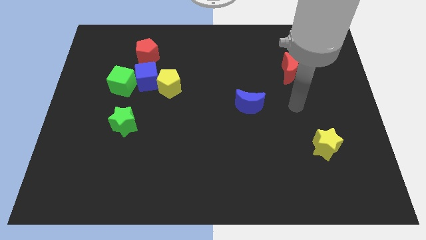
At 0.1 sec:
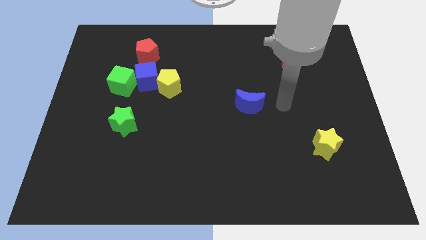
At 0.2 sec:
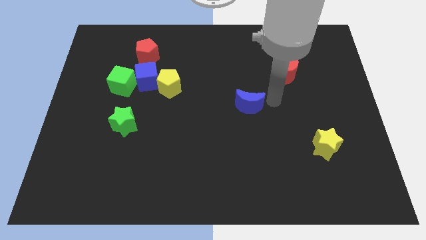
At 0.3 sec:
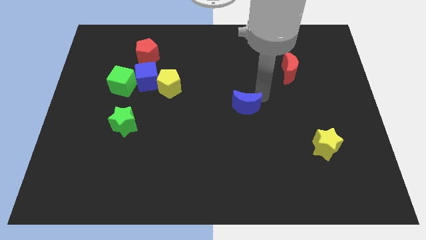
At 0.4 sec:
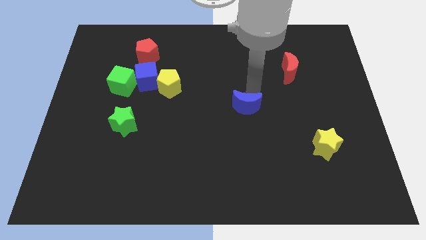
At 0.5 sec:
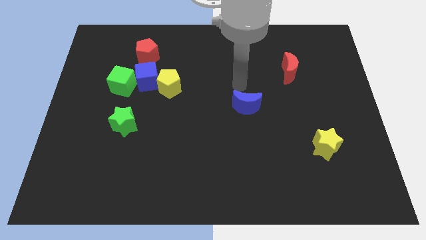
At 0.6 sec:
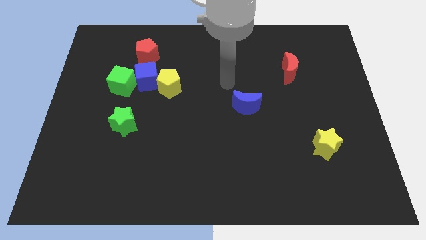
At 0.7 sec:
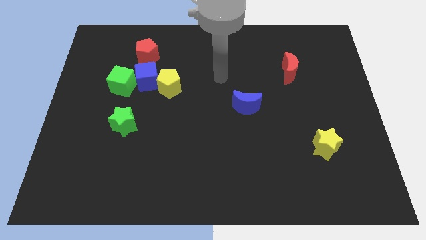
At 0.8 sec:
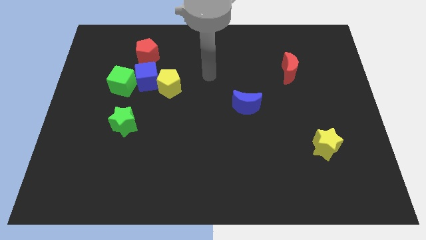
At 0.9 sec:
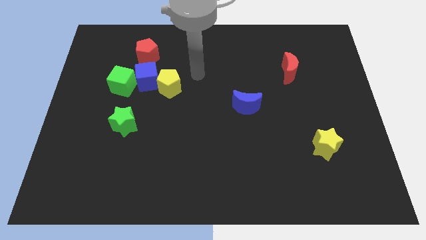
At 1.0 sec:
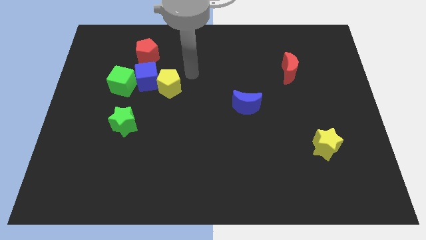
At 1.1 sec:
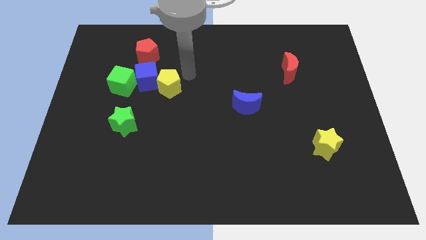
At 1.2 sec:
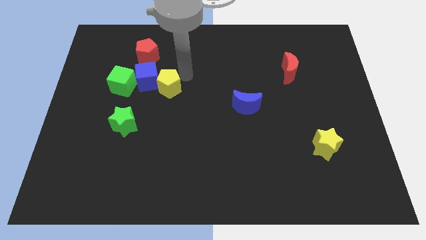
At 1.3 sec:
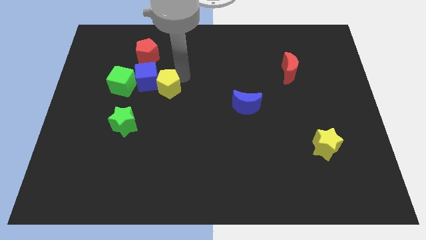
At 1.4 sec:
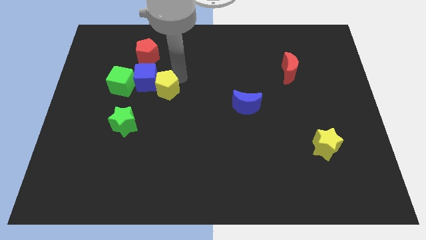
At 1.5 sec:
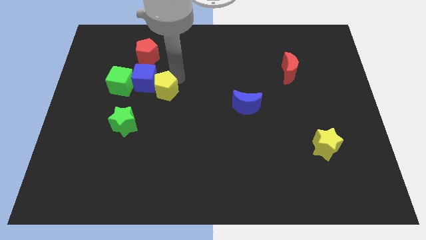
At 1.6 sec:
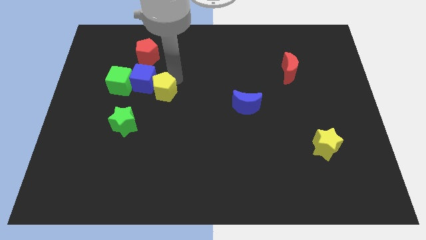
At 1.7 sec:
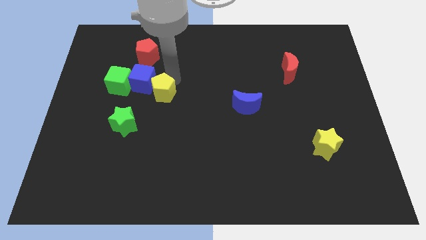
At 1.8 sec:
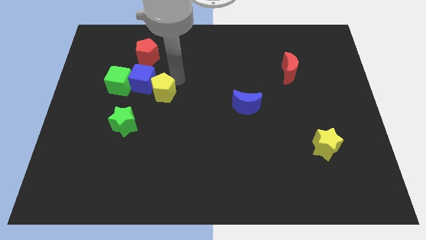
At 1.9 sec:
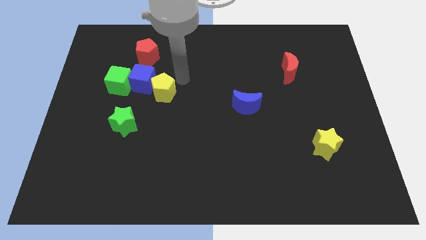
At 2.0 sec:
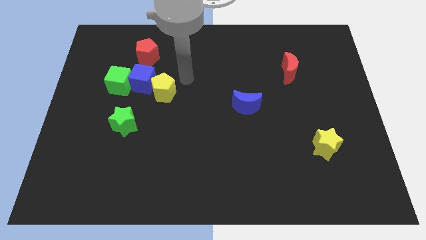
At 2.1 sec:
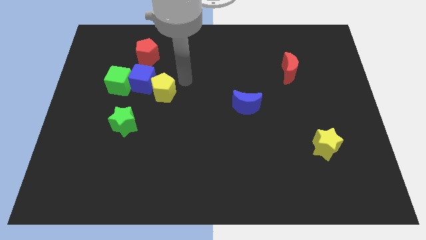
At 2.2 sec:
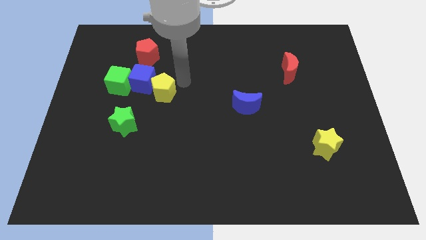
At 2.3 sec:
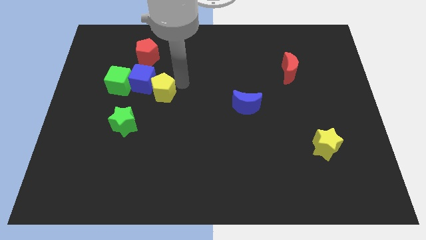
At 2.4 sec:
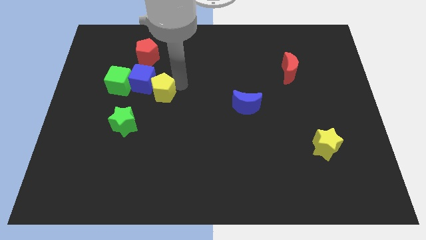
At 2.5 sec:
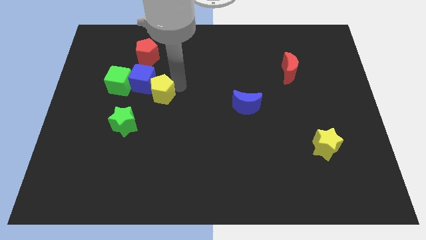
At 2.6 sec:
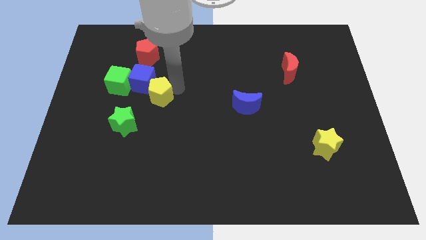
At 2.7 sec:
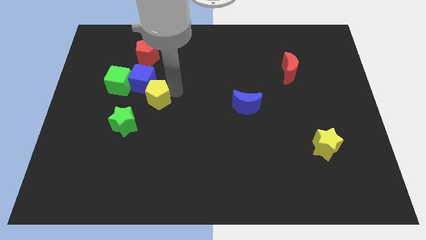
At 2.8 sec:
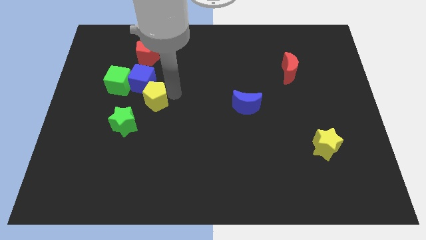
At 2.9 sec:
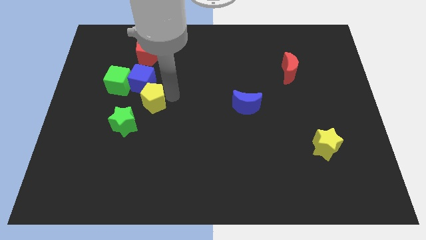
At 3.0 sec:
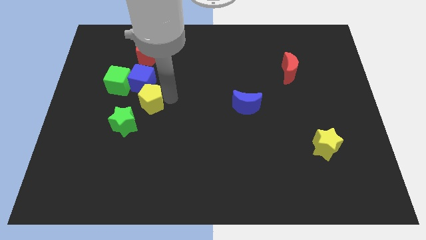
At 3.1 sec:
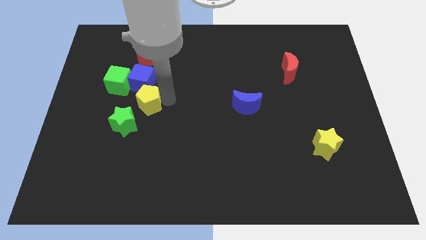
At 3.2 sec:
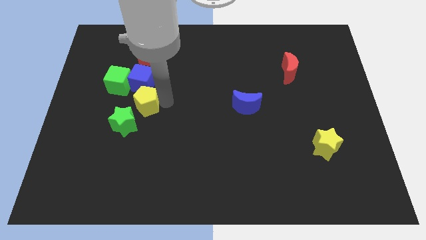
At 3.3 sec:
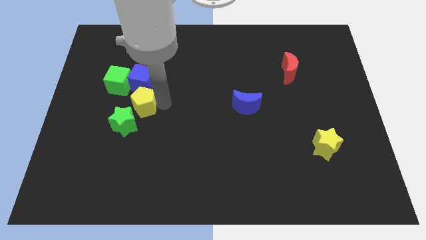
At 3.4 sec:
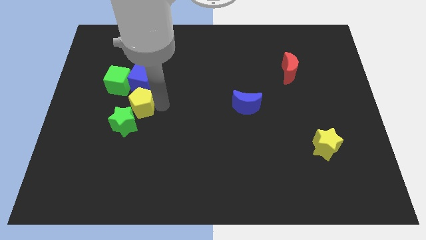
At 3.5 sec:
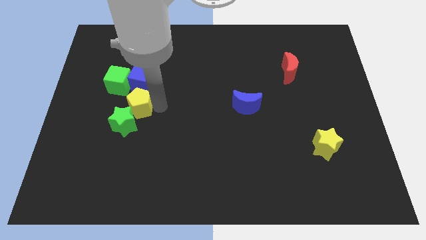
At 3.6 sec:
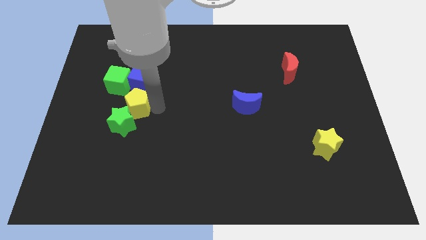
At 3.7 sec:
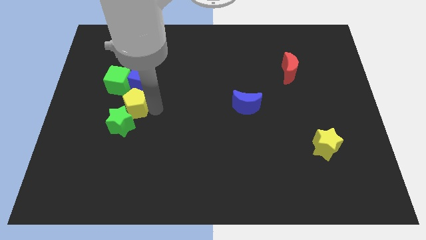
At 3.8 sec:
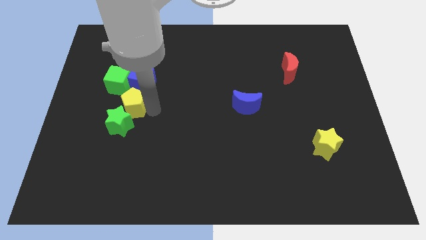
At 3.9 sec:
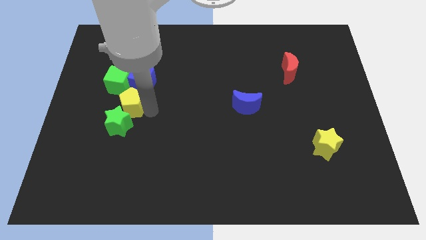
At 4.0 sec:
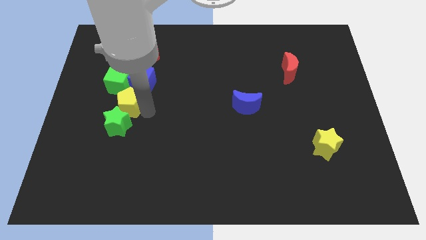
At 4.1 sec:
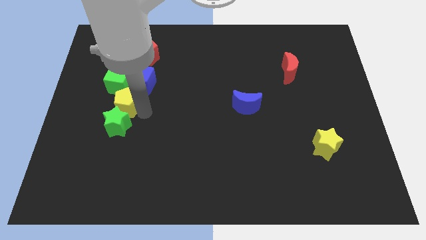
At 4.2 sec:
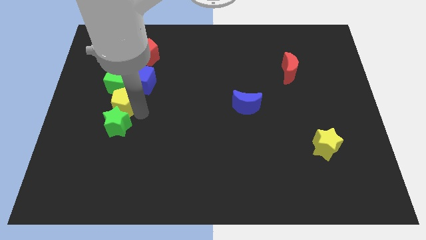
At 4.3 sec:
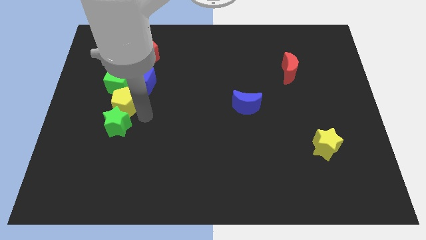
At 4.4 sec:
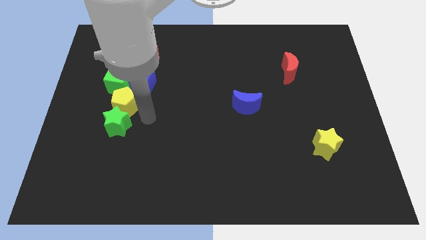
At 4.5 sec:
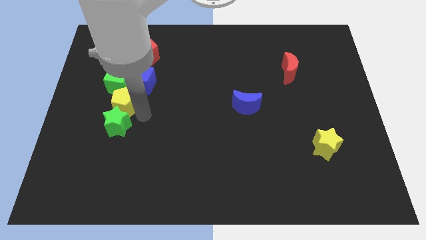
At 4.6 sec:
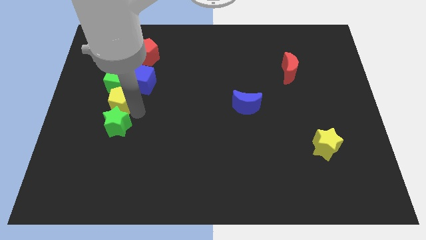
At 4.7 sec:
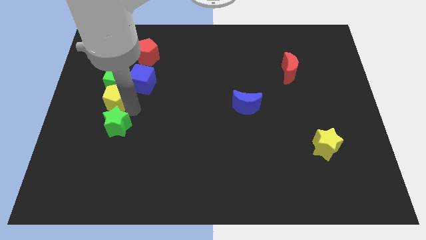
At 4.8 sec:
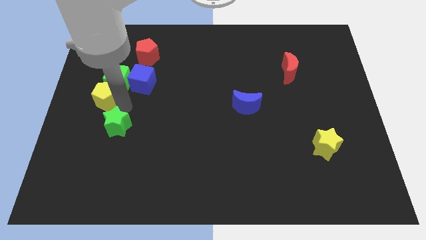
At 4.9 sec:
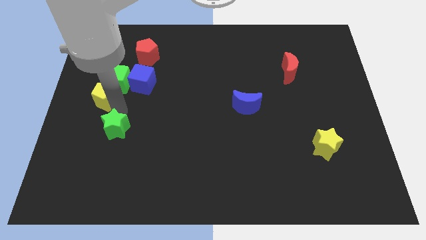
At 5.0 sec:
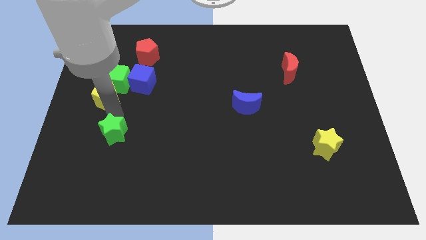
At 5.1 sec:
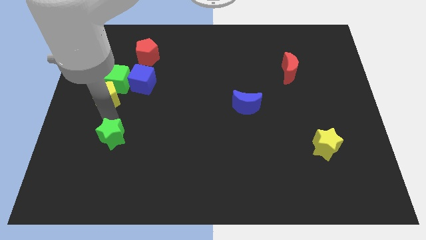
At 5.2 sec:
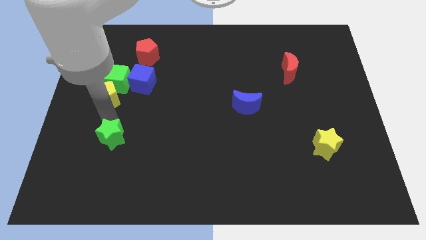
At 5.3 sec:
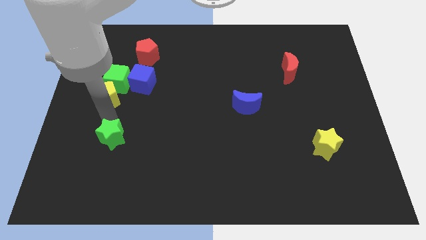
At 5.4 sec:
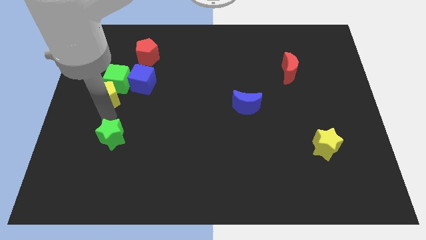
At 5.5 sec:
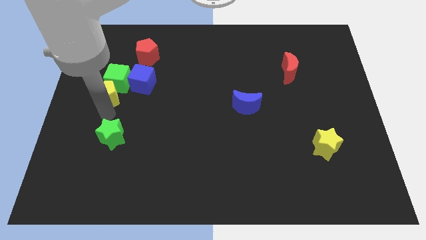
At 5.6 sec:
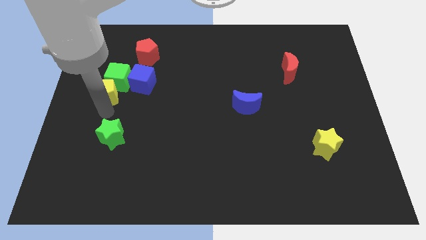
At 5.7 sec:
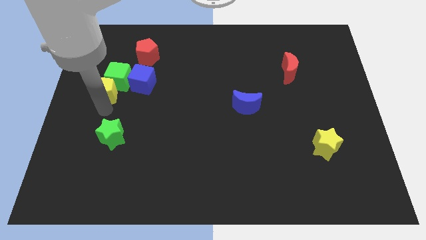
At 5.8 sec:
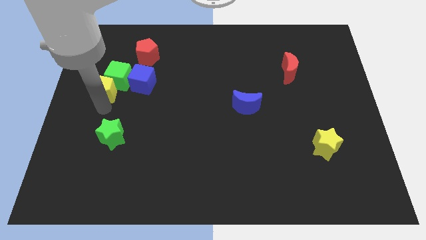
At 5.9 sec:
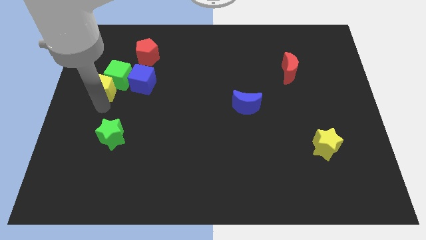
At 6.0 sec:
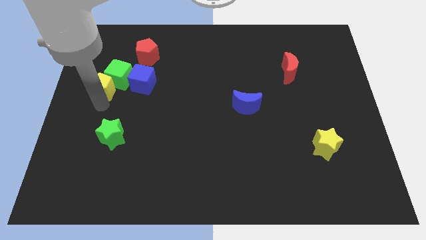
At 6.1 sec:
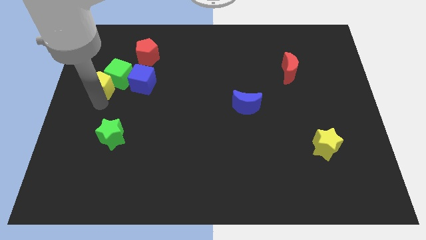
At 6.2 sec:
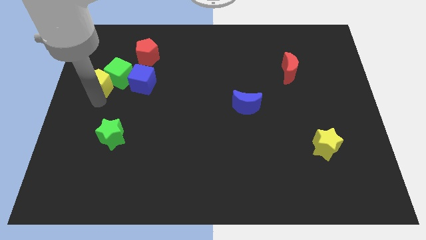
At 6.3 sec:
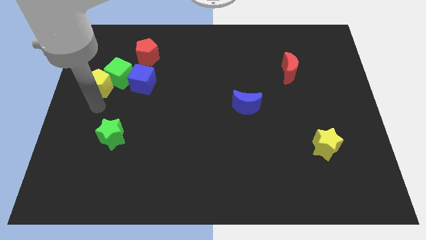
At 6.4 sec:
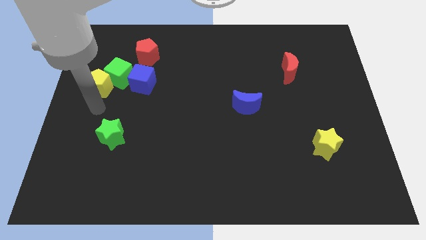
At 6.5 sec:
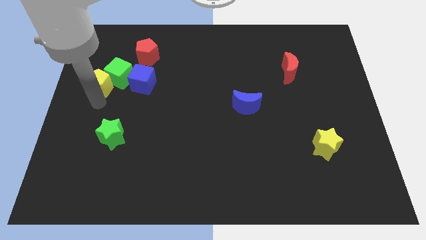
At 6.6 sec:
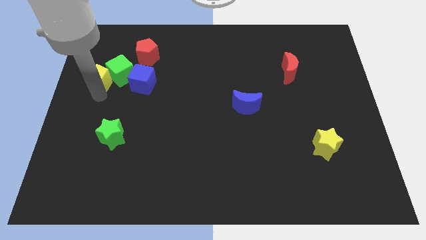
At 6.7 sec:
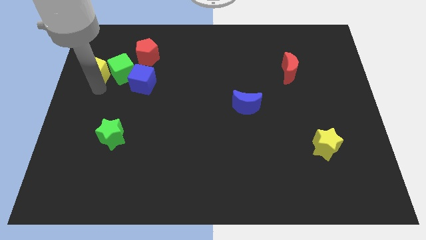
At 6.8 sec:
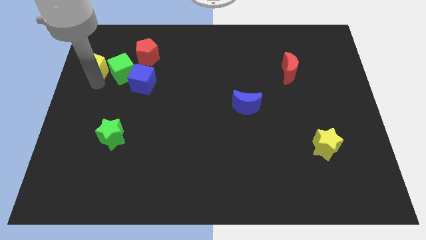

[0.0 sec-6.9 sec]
push the yellow pentagon diagonally up and to the left of the green cube

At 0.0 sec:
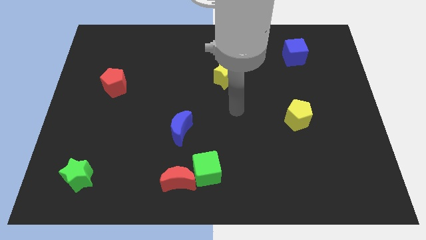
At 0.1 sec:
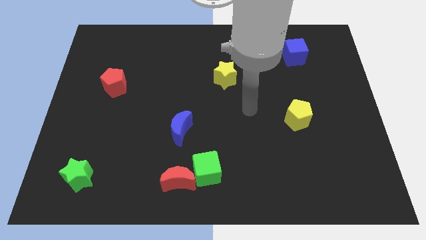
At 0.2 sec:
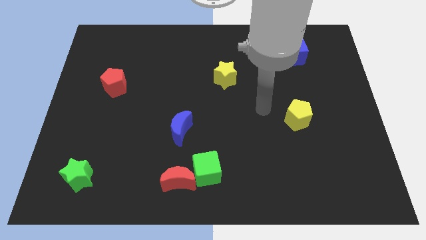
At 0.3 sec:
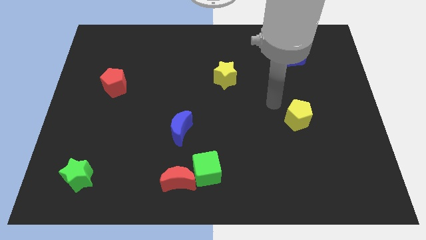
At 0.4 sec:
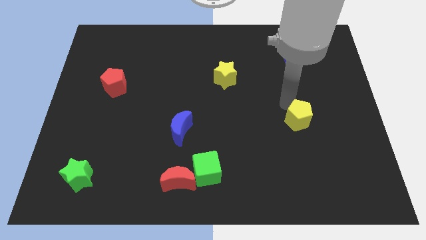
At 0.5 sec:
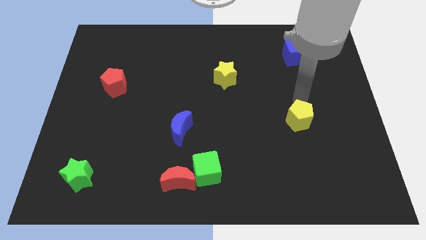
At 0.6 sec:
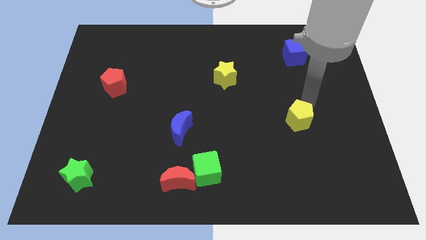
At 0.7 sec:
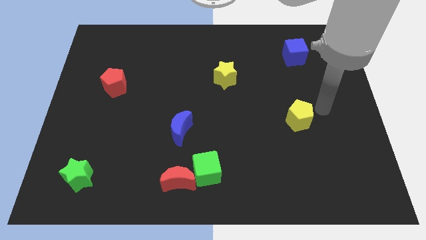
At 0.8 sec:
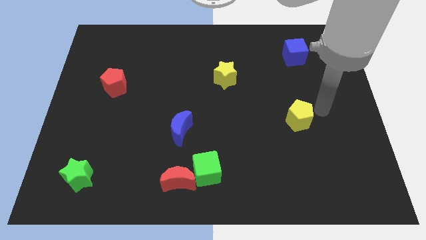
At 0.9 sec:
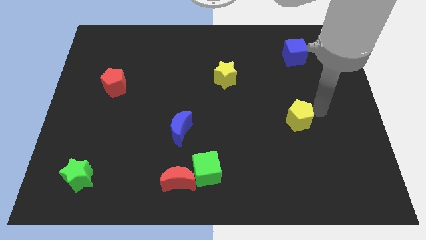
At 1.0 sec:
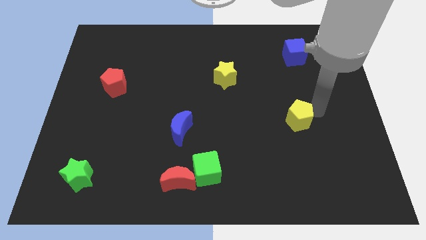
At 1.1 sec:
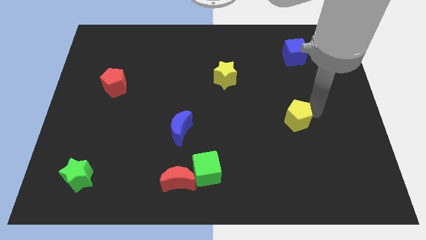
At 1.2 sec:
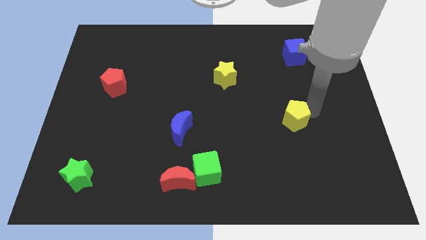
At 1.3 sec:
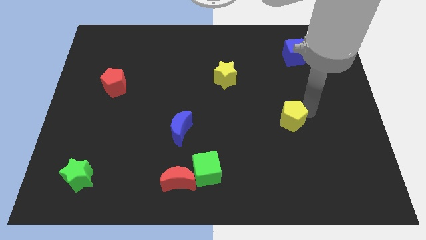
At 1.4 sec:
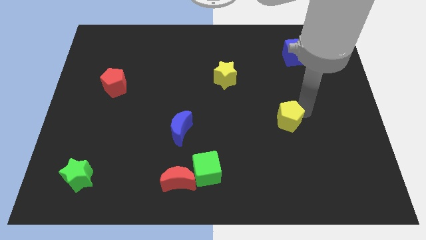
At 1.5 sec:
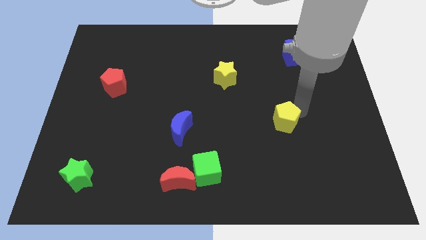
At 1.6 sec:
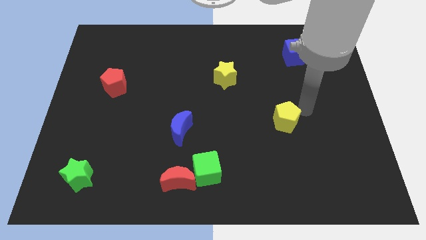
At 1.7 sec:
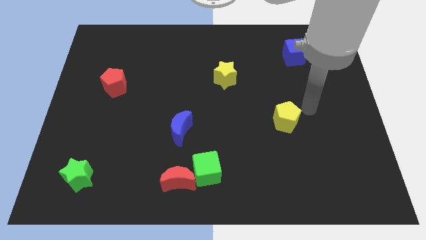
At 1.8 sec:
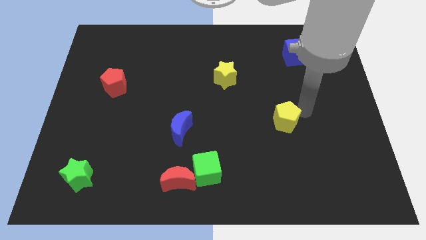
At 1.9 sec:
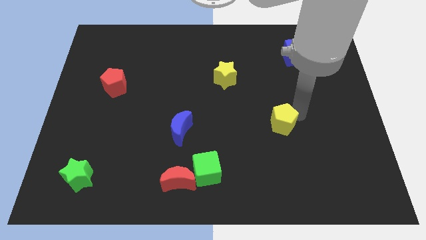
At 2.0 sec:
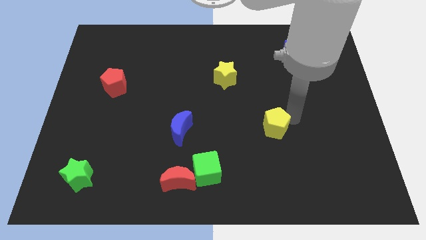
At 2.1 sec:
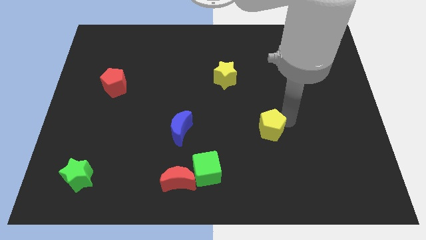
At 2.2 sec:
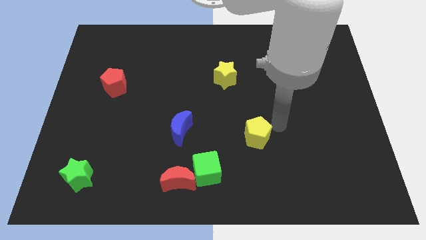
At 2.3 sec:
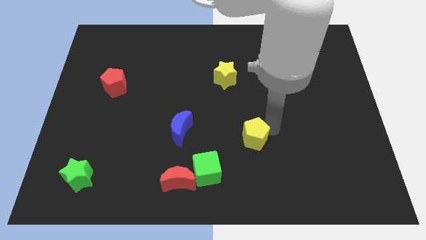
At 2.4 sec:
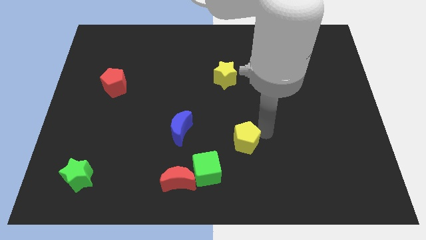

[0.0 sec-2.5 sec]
push the yellow pentagon to the top right side of the green cube
